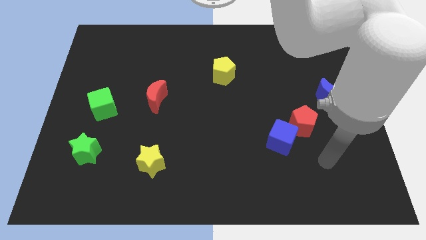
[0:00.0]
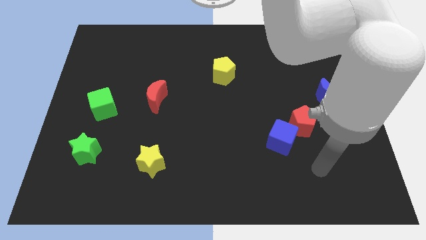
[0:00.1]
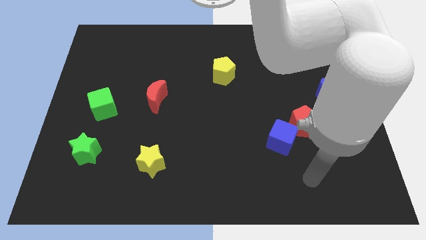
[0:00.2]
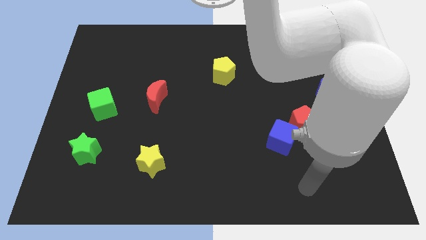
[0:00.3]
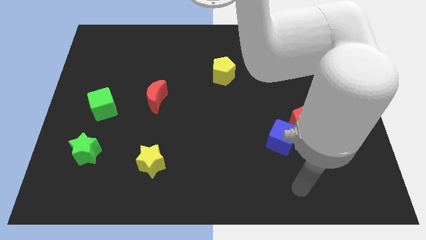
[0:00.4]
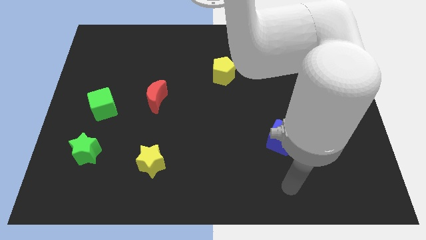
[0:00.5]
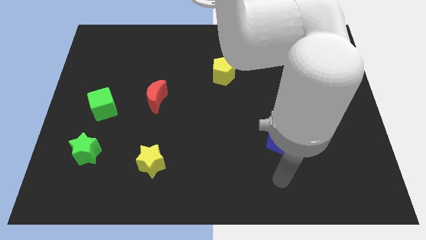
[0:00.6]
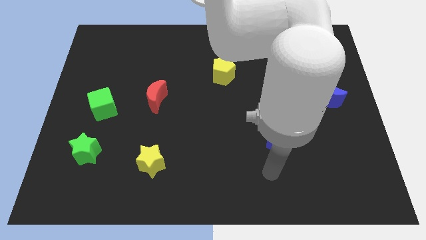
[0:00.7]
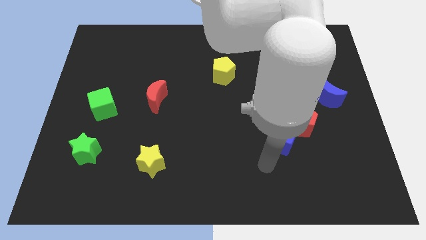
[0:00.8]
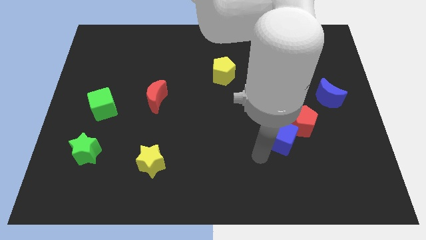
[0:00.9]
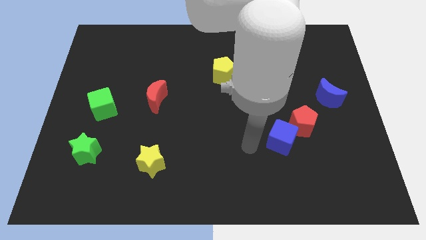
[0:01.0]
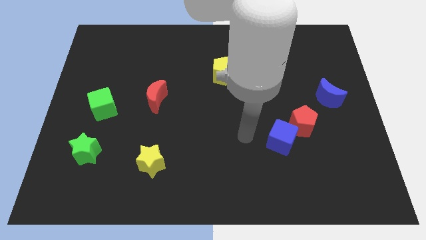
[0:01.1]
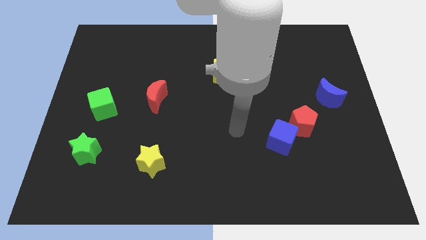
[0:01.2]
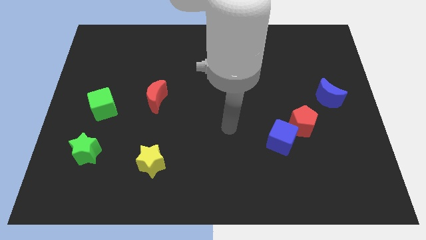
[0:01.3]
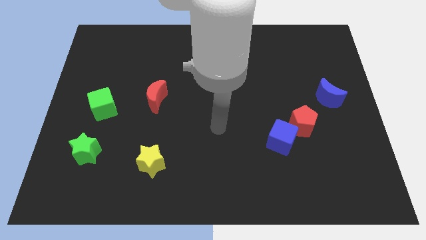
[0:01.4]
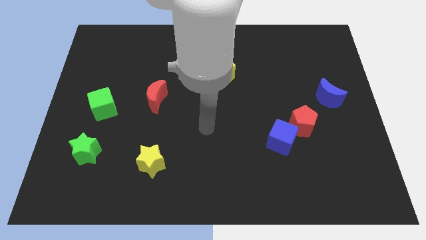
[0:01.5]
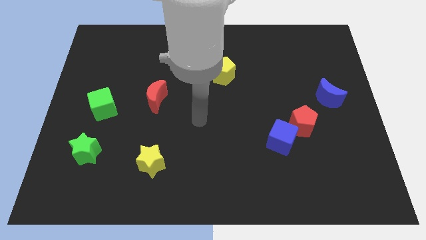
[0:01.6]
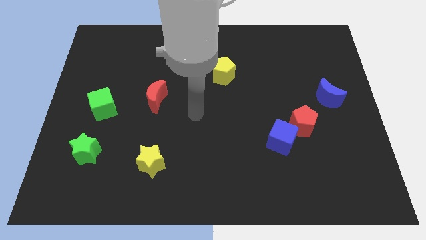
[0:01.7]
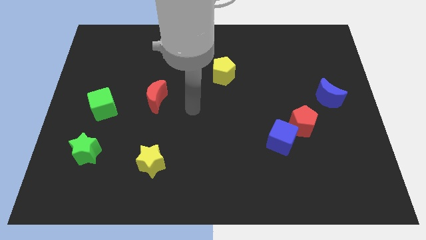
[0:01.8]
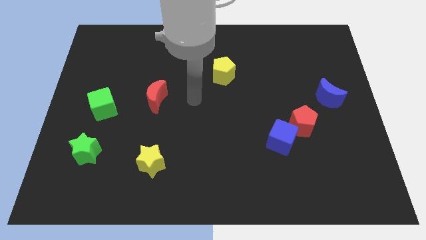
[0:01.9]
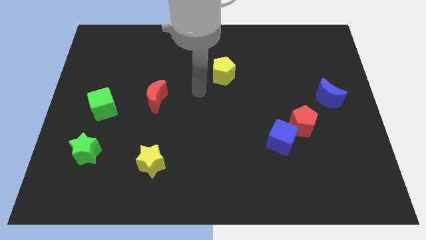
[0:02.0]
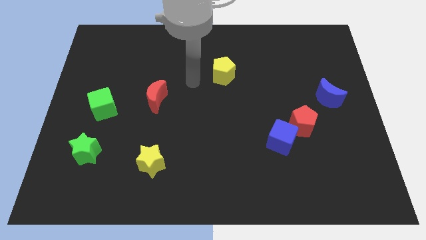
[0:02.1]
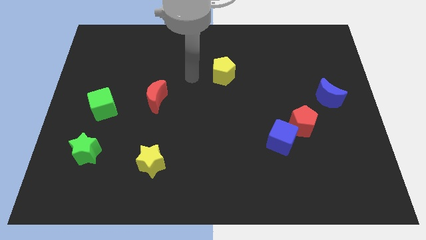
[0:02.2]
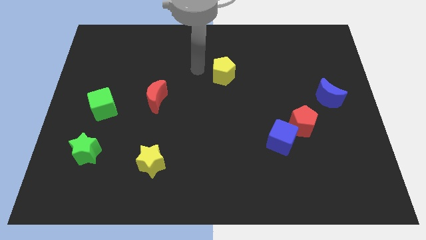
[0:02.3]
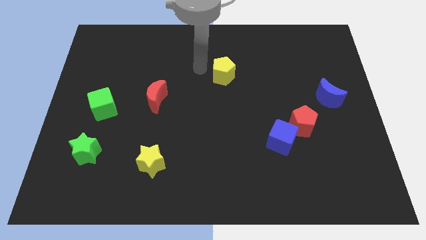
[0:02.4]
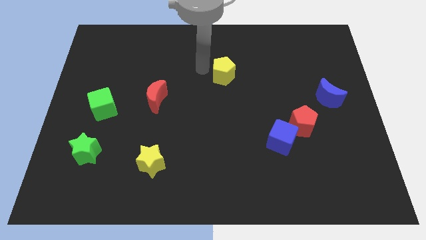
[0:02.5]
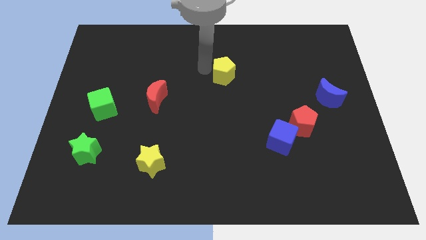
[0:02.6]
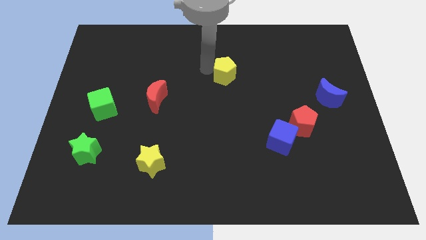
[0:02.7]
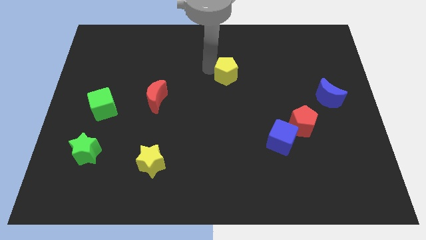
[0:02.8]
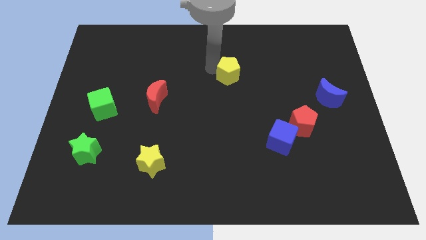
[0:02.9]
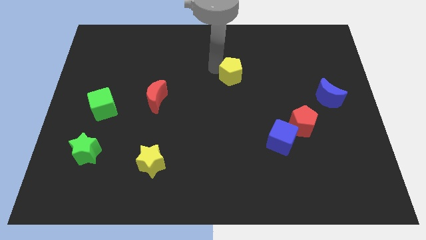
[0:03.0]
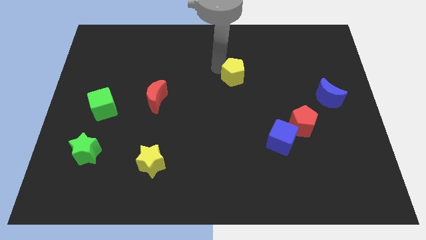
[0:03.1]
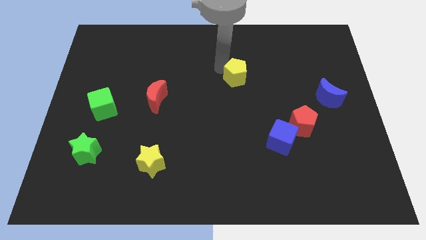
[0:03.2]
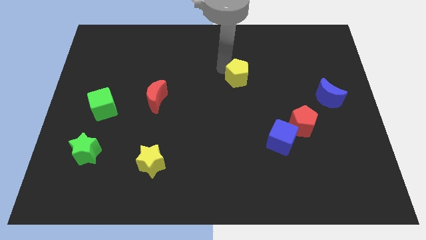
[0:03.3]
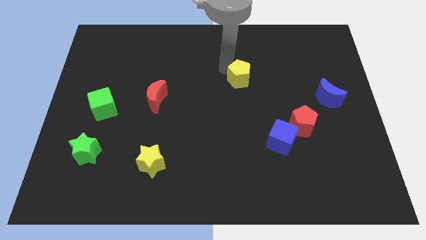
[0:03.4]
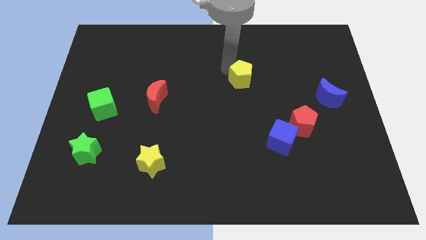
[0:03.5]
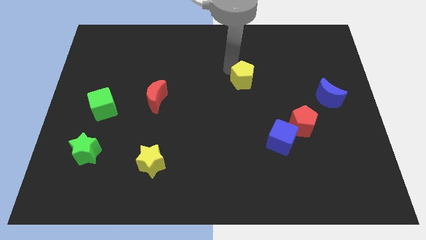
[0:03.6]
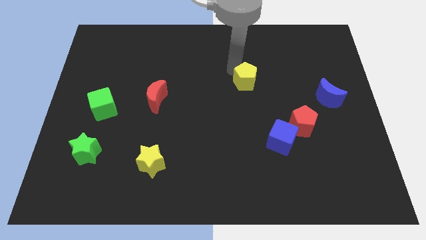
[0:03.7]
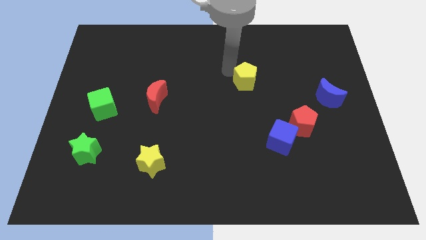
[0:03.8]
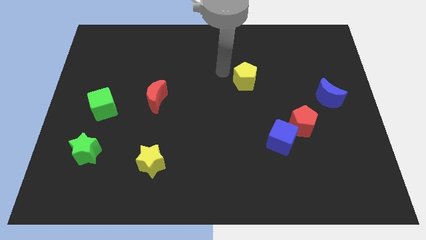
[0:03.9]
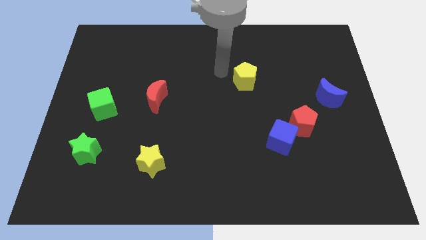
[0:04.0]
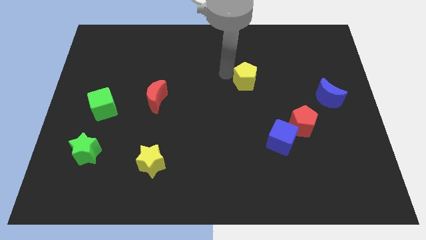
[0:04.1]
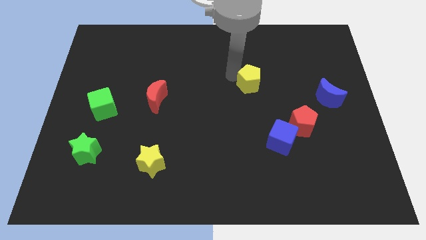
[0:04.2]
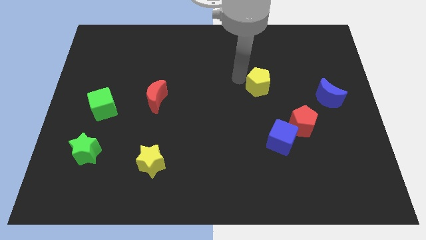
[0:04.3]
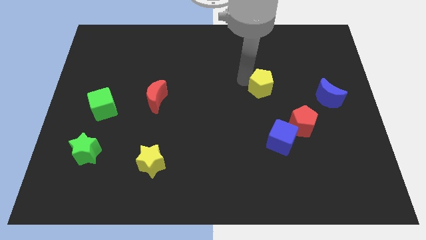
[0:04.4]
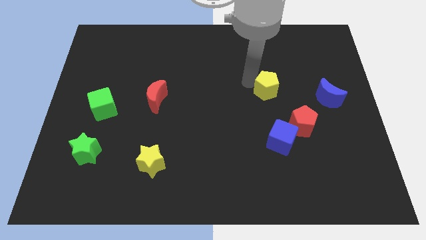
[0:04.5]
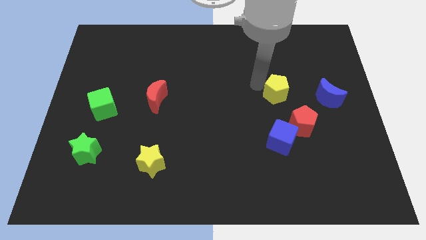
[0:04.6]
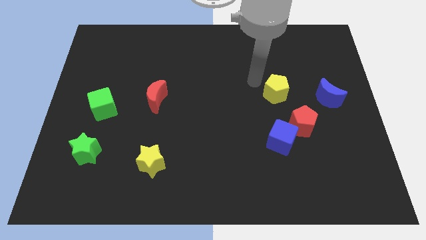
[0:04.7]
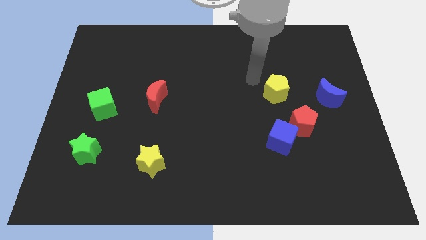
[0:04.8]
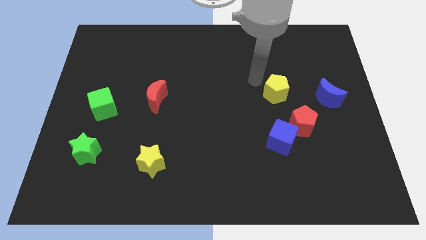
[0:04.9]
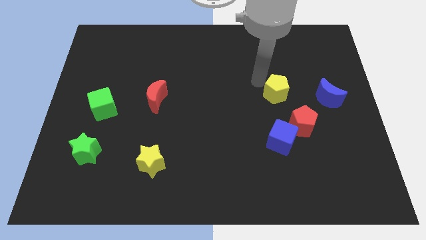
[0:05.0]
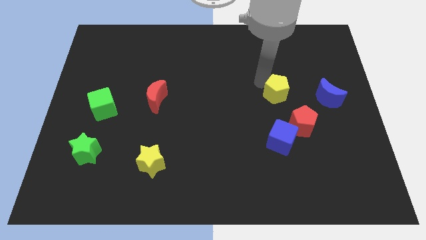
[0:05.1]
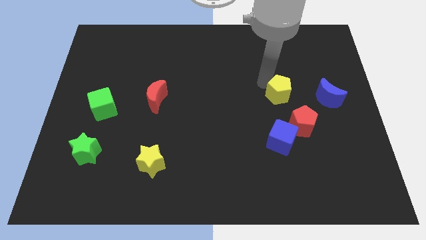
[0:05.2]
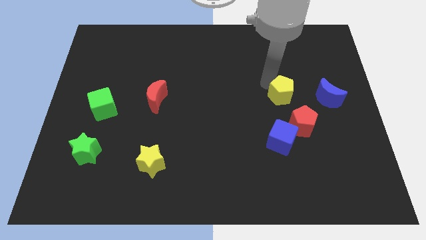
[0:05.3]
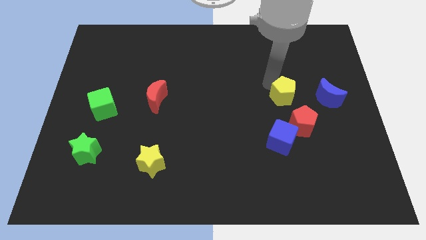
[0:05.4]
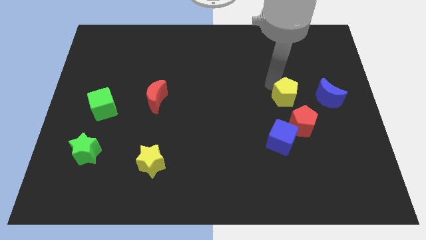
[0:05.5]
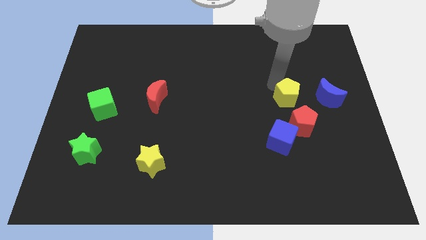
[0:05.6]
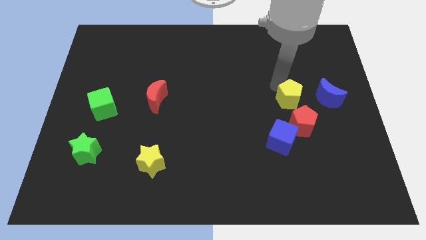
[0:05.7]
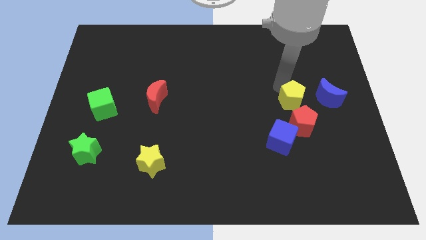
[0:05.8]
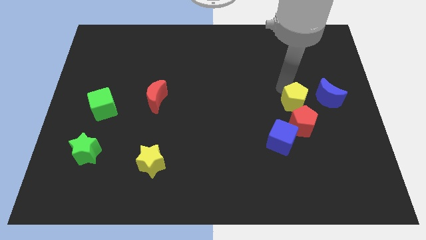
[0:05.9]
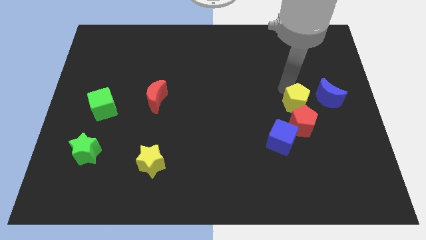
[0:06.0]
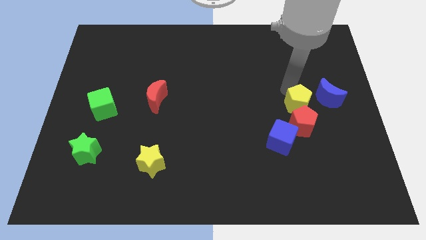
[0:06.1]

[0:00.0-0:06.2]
slide the yellow pentagon diagonally up and to the right of the blue cube
